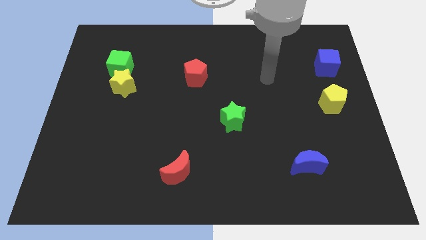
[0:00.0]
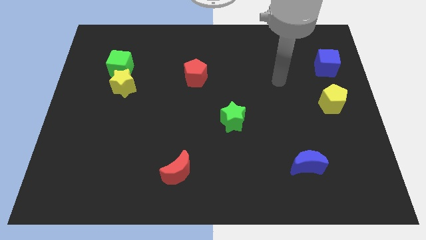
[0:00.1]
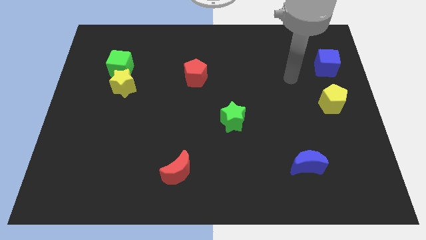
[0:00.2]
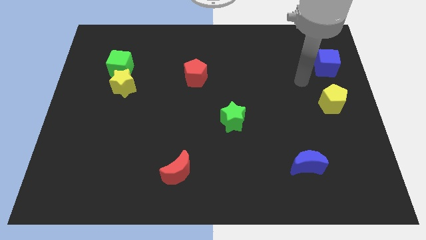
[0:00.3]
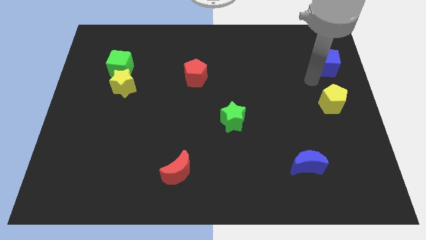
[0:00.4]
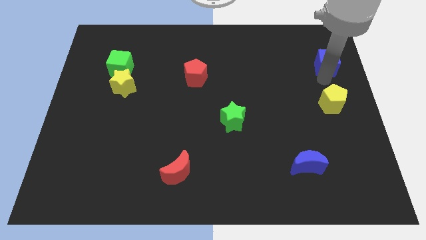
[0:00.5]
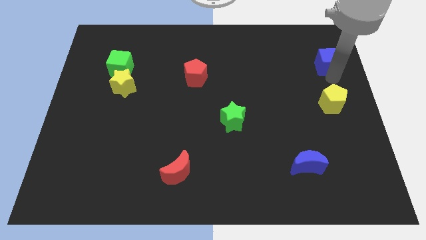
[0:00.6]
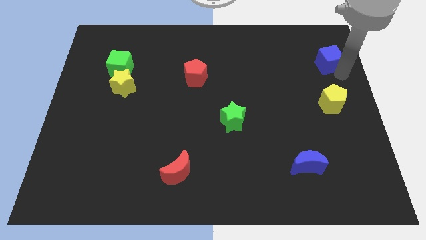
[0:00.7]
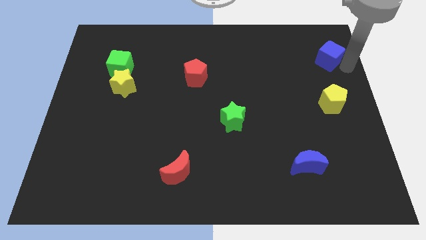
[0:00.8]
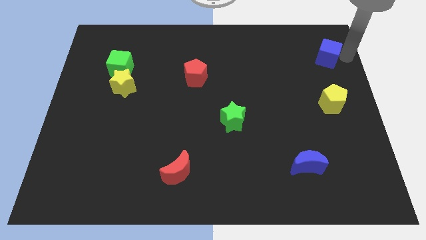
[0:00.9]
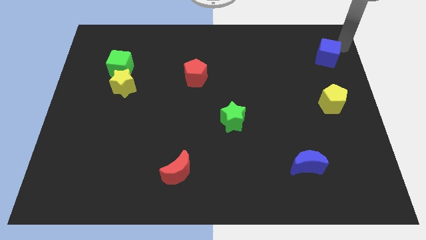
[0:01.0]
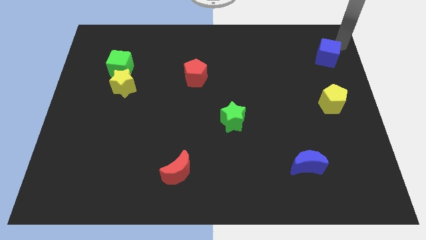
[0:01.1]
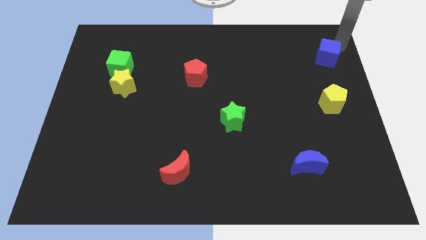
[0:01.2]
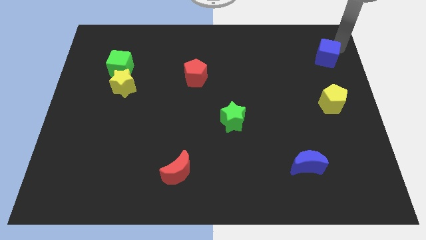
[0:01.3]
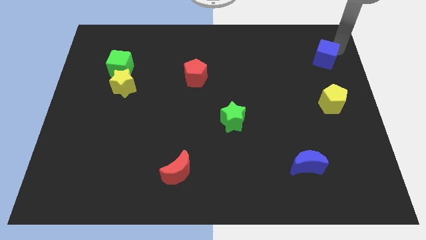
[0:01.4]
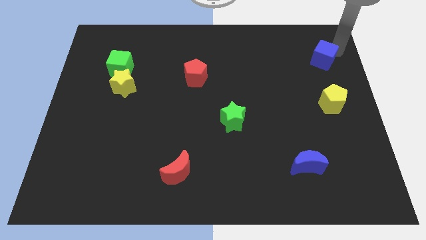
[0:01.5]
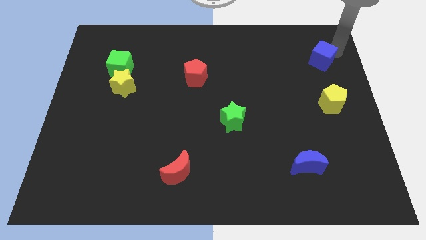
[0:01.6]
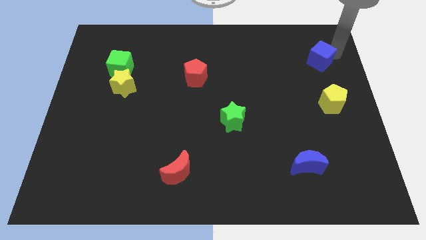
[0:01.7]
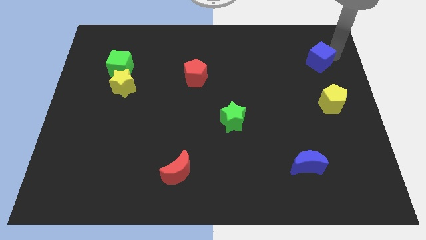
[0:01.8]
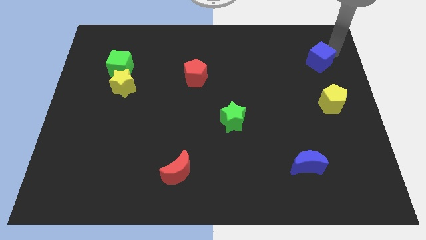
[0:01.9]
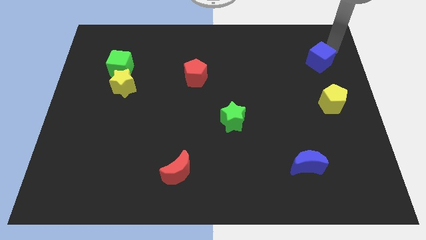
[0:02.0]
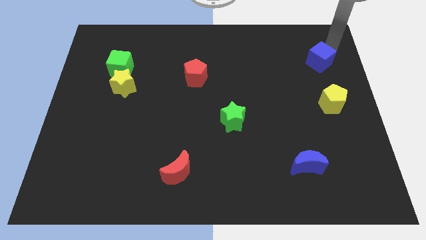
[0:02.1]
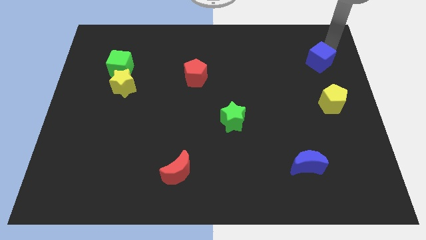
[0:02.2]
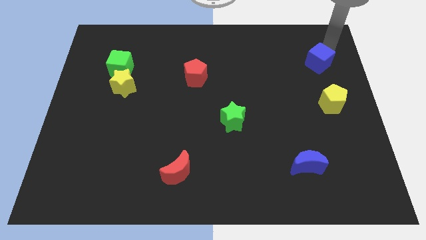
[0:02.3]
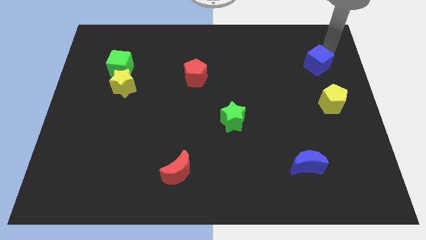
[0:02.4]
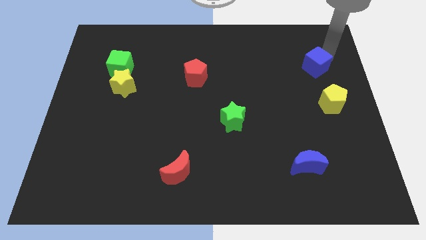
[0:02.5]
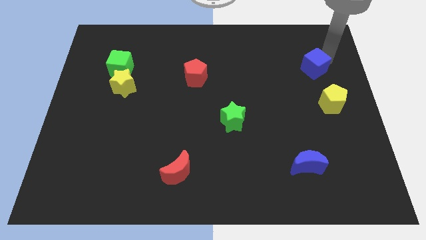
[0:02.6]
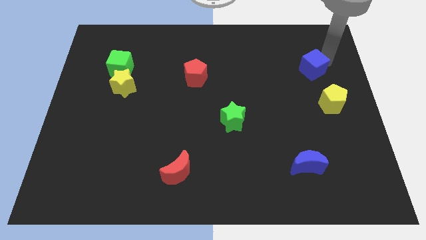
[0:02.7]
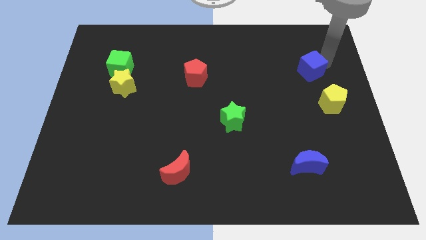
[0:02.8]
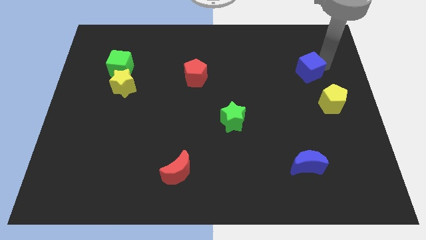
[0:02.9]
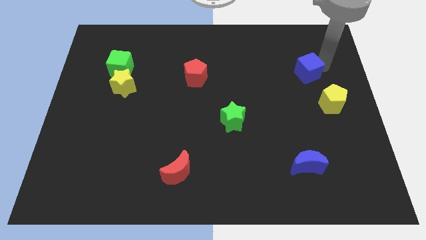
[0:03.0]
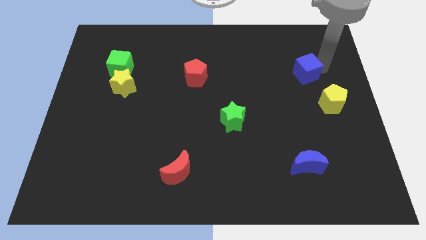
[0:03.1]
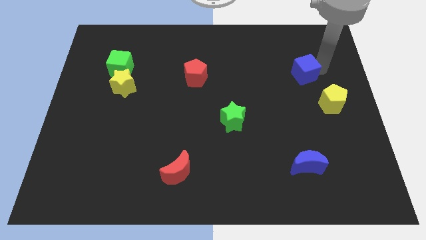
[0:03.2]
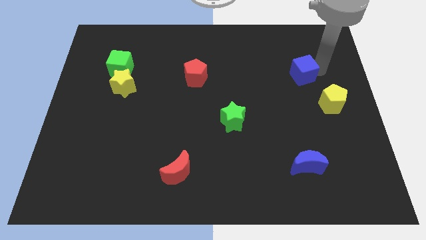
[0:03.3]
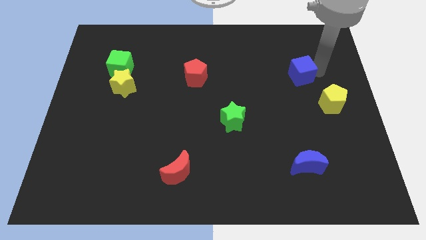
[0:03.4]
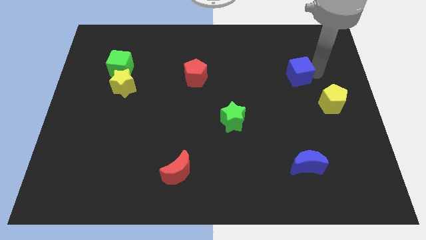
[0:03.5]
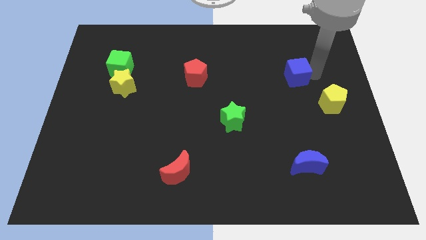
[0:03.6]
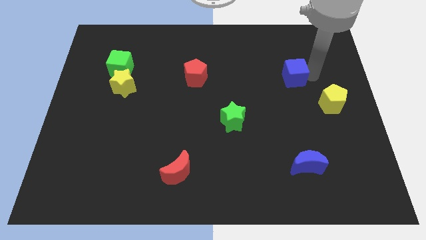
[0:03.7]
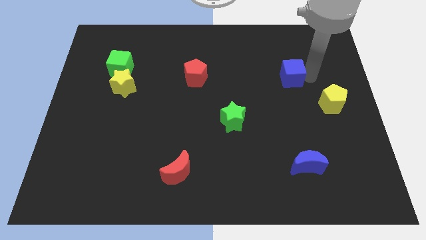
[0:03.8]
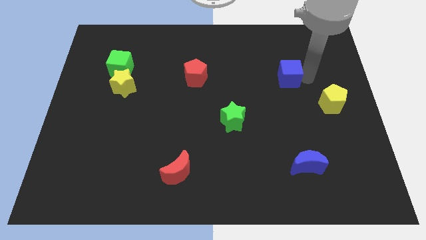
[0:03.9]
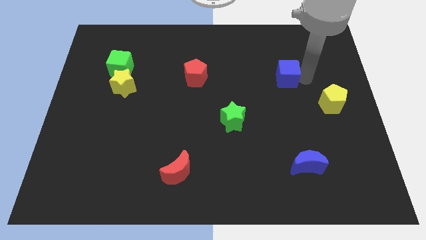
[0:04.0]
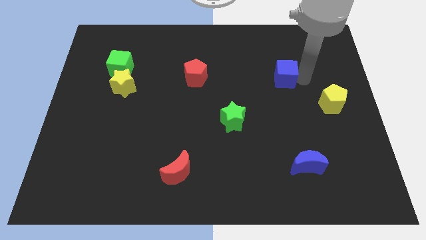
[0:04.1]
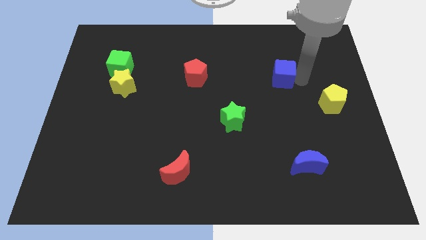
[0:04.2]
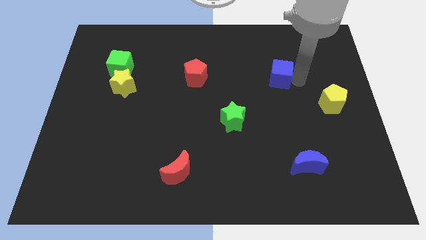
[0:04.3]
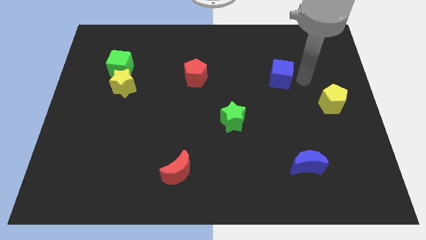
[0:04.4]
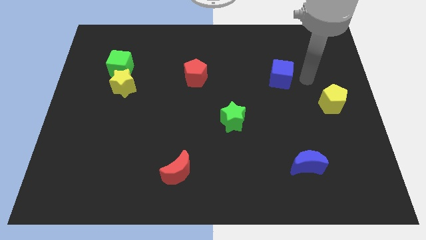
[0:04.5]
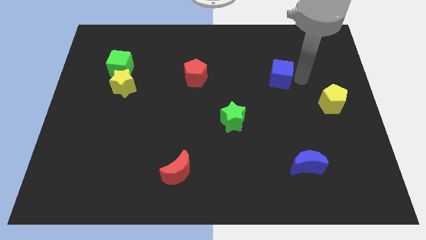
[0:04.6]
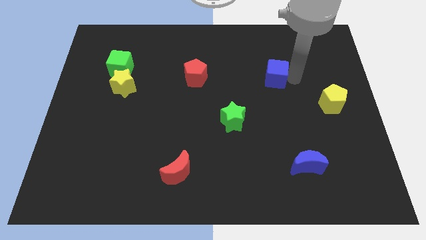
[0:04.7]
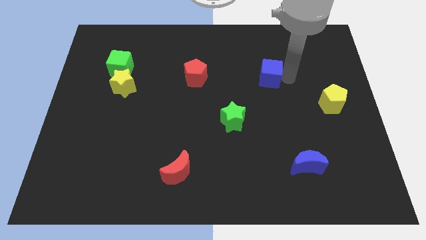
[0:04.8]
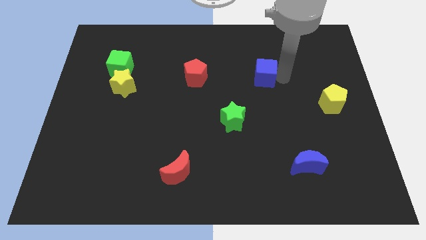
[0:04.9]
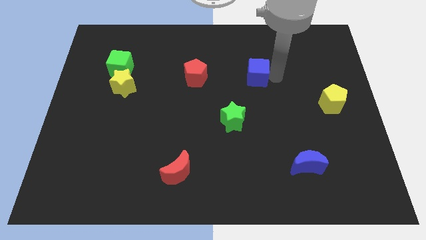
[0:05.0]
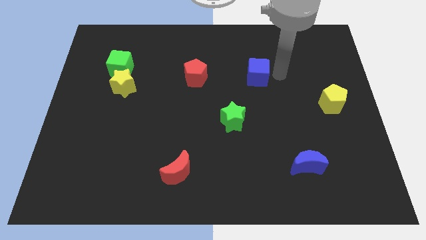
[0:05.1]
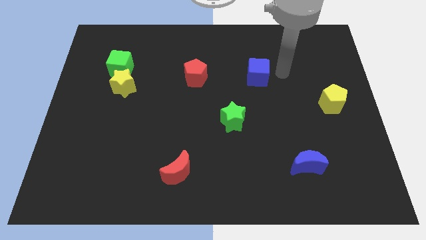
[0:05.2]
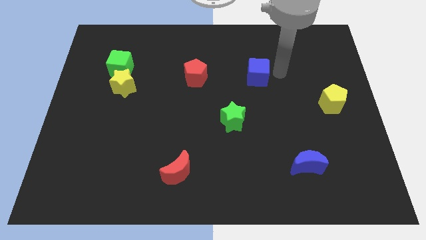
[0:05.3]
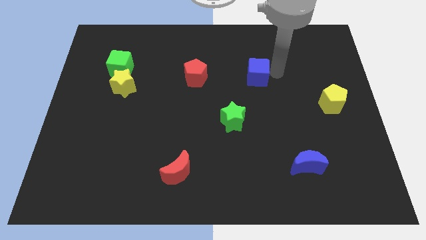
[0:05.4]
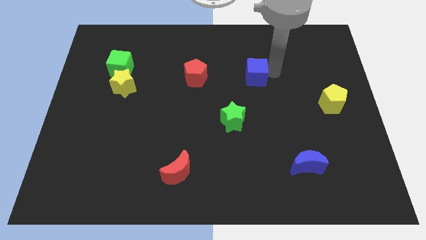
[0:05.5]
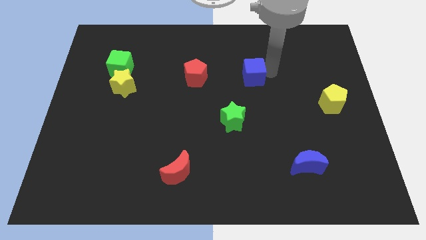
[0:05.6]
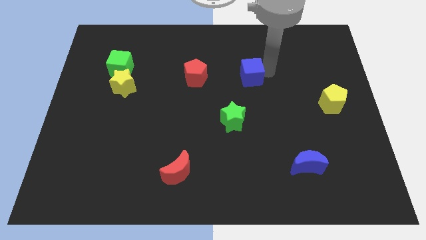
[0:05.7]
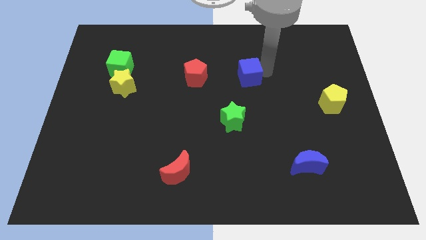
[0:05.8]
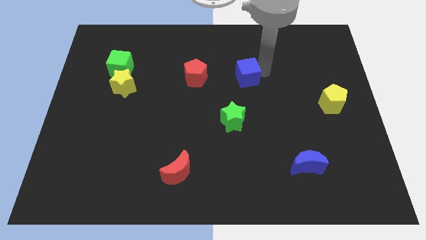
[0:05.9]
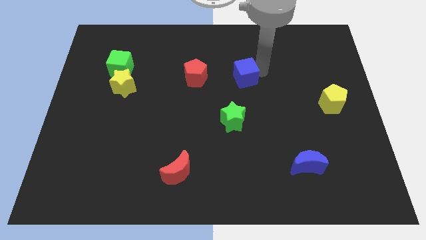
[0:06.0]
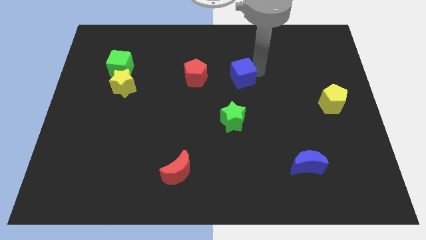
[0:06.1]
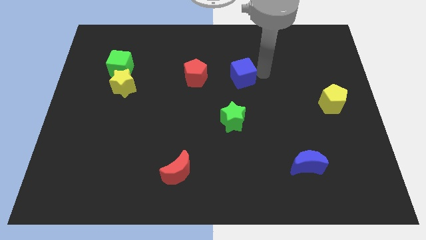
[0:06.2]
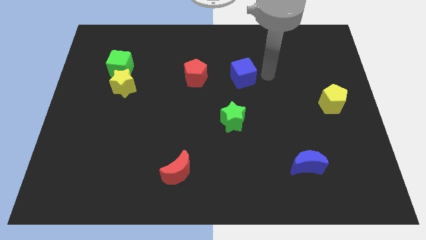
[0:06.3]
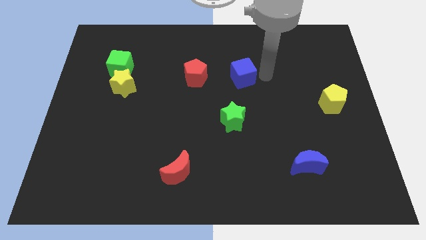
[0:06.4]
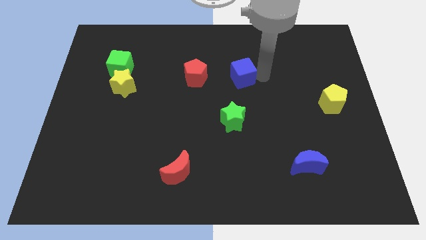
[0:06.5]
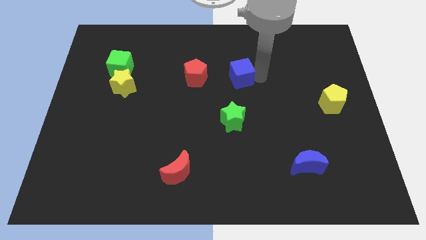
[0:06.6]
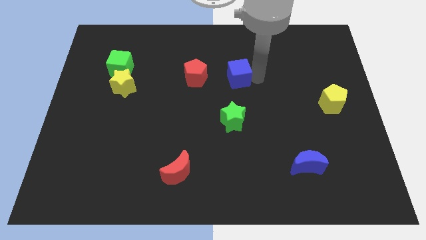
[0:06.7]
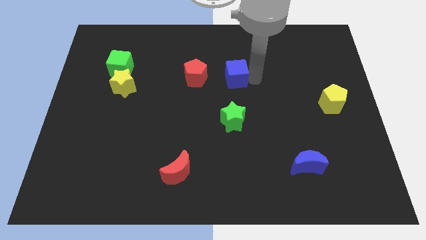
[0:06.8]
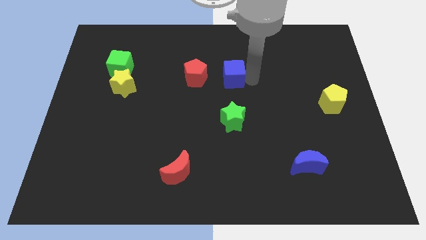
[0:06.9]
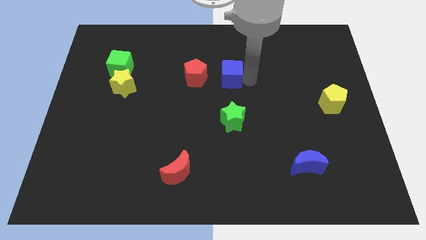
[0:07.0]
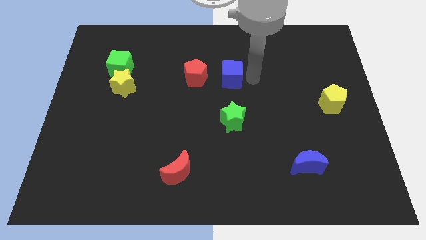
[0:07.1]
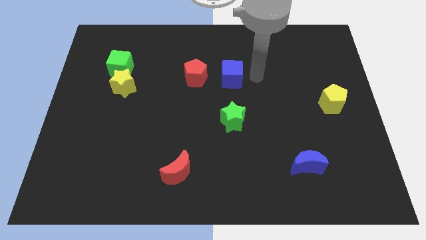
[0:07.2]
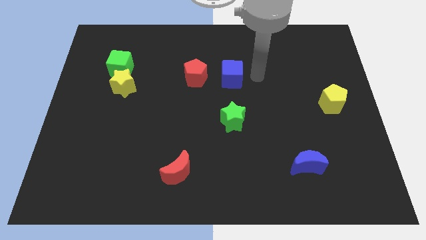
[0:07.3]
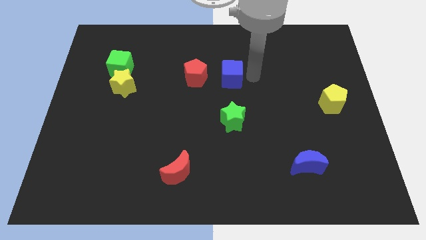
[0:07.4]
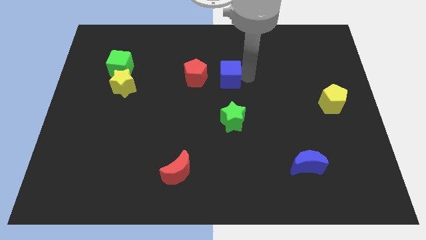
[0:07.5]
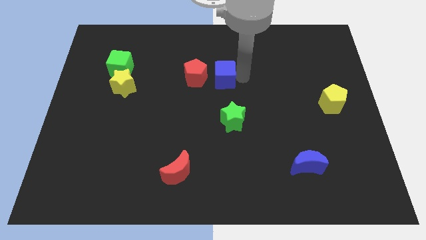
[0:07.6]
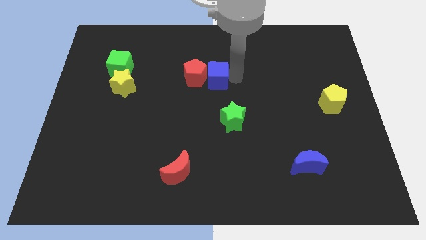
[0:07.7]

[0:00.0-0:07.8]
slide the blue cube close to the red pentagon

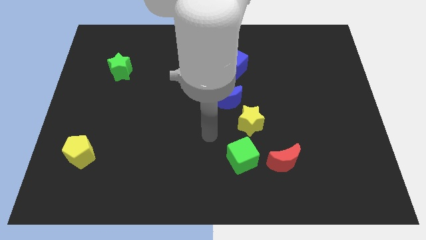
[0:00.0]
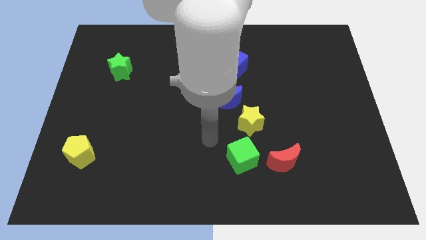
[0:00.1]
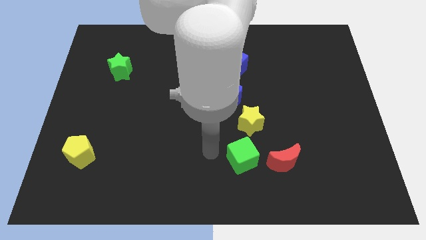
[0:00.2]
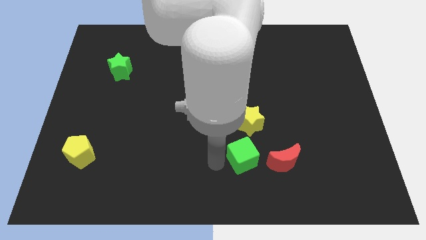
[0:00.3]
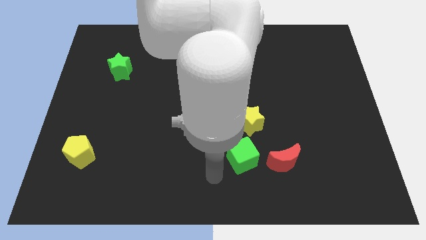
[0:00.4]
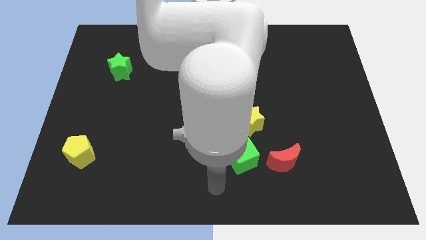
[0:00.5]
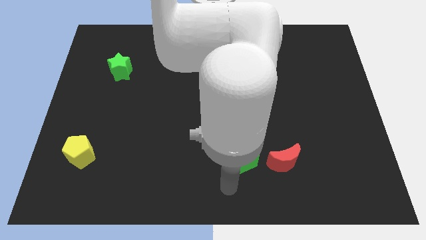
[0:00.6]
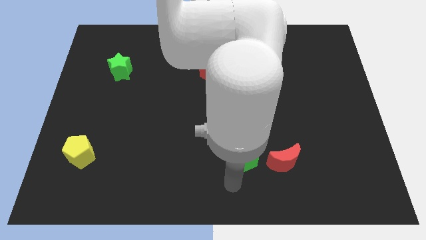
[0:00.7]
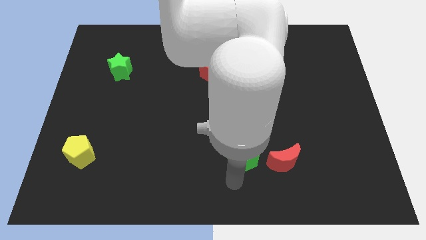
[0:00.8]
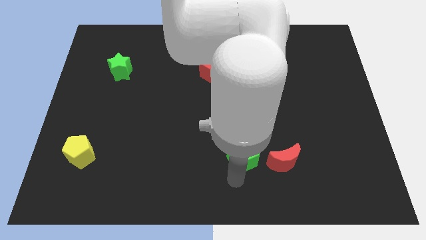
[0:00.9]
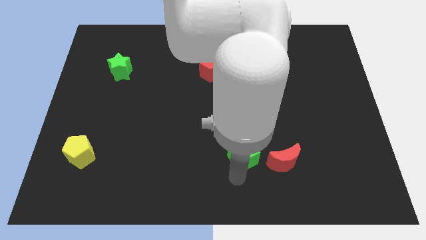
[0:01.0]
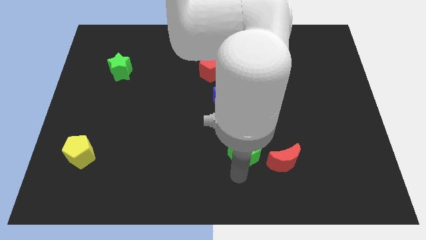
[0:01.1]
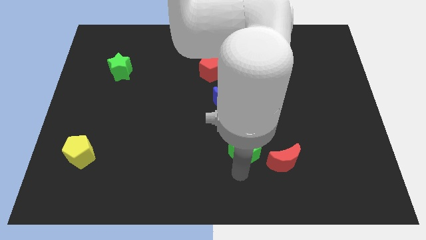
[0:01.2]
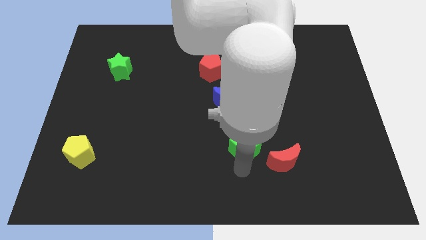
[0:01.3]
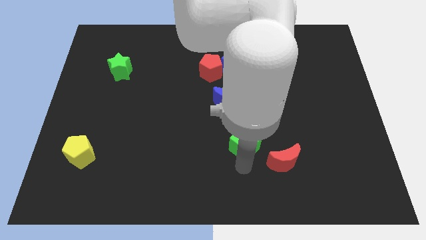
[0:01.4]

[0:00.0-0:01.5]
slide the green cube to the yellow star
